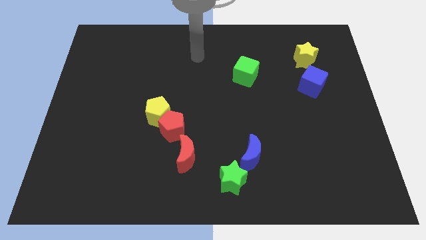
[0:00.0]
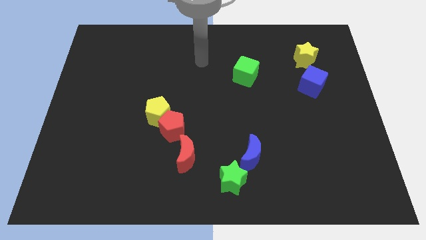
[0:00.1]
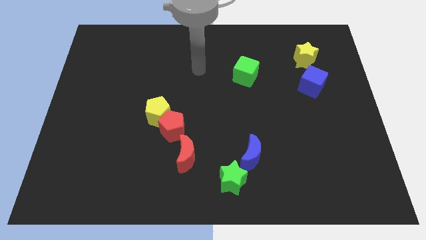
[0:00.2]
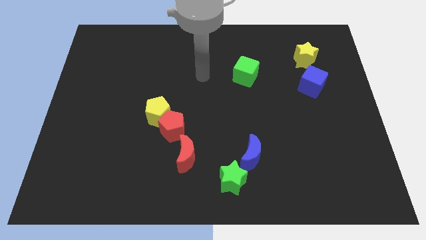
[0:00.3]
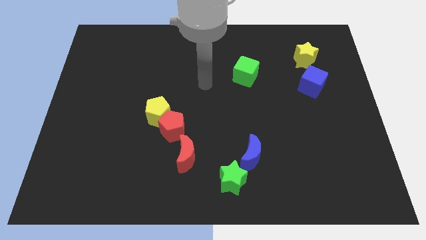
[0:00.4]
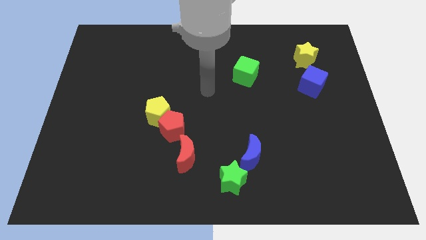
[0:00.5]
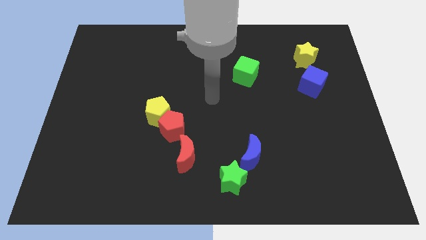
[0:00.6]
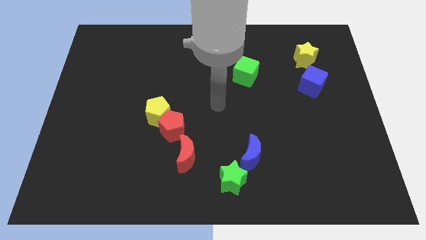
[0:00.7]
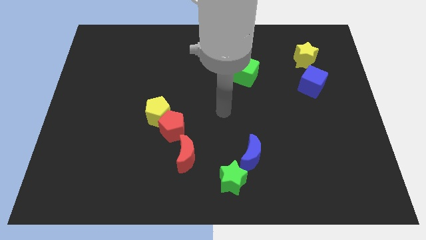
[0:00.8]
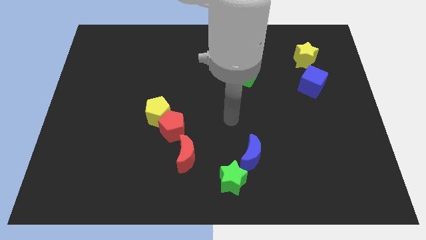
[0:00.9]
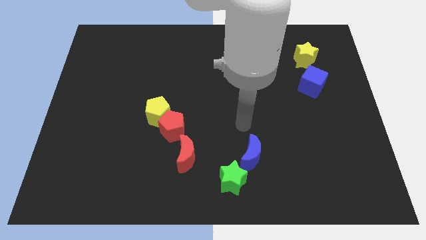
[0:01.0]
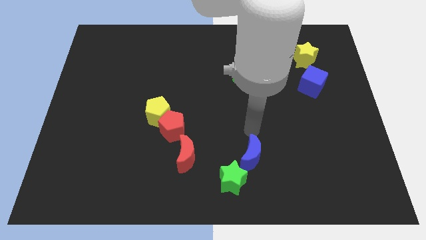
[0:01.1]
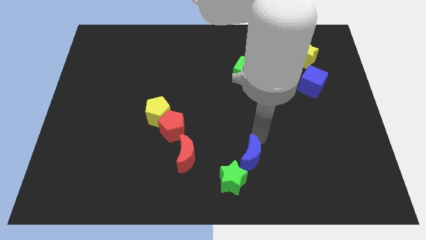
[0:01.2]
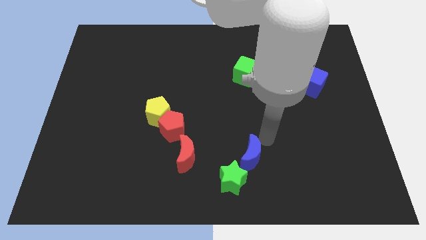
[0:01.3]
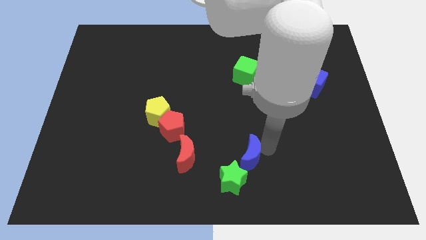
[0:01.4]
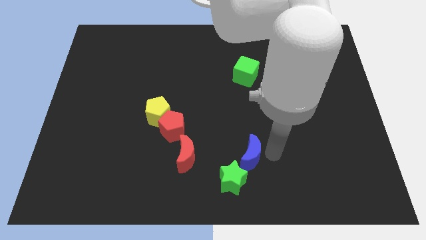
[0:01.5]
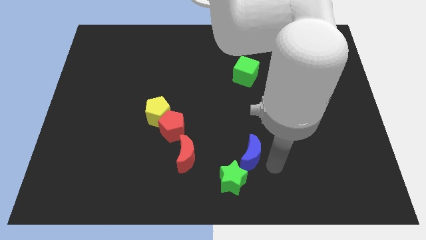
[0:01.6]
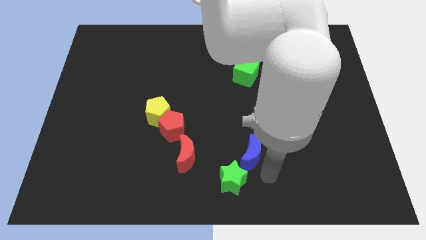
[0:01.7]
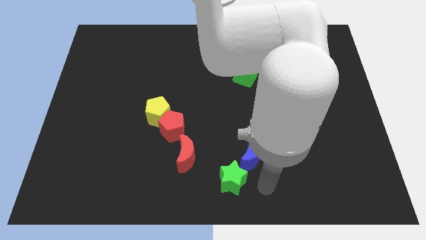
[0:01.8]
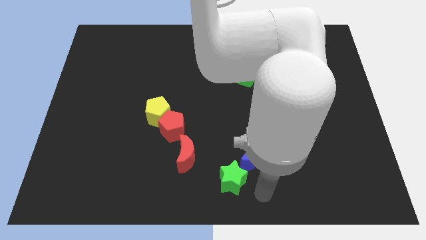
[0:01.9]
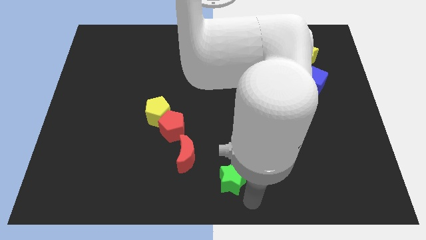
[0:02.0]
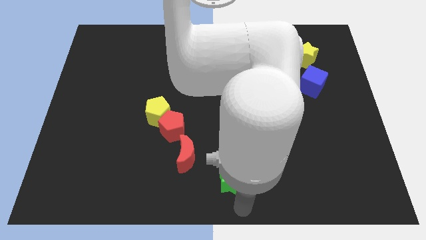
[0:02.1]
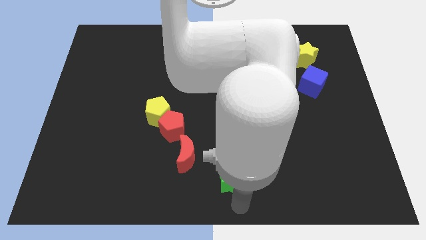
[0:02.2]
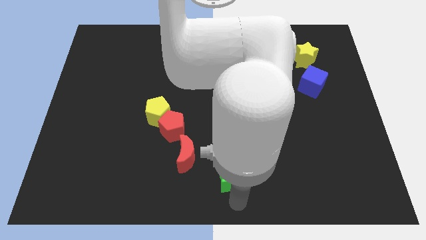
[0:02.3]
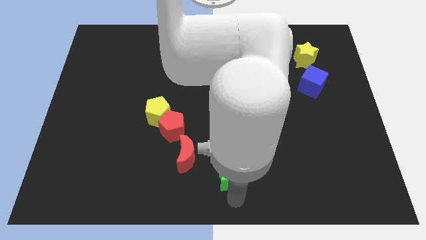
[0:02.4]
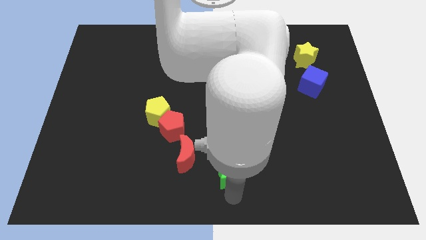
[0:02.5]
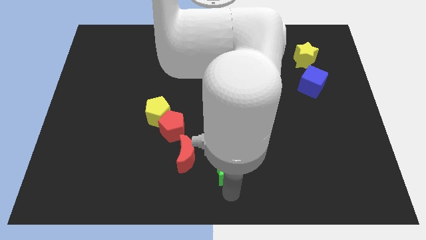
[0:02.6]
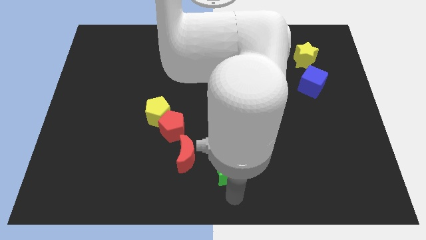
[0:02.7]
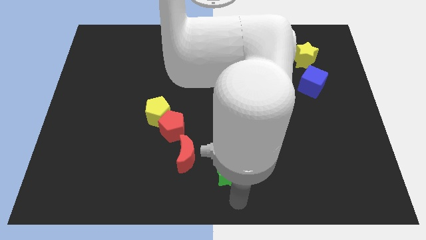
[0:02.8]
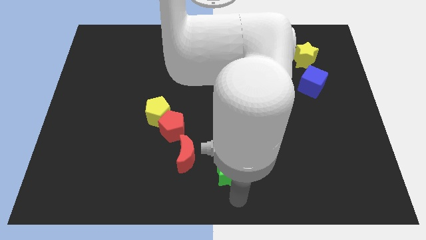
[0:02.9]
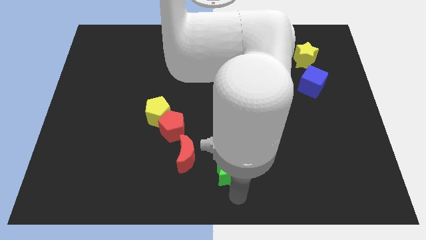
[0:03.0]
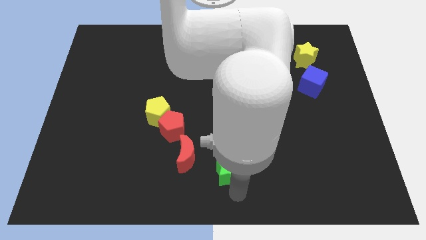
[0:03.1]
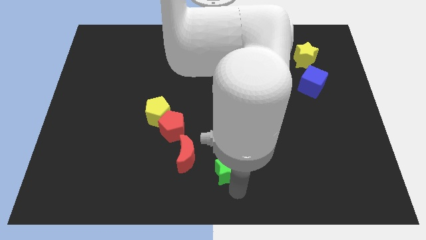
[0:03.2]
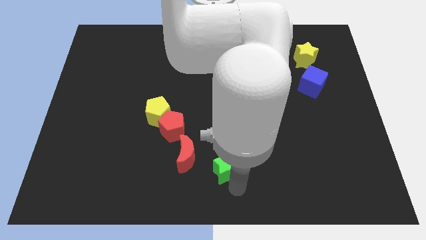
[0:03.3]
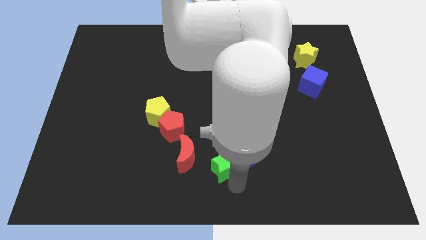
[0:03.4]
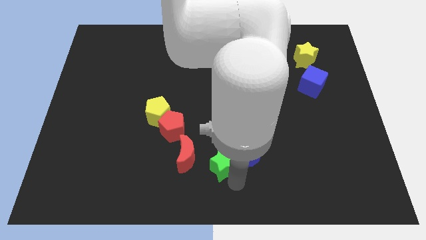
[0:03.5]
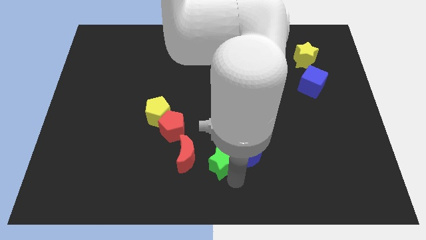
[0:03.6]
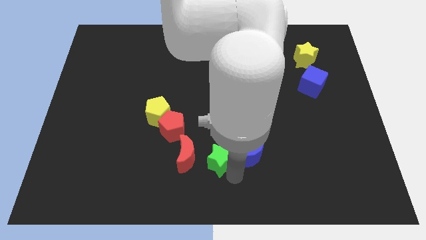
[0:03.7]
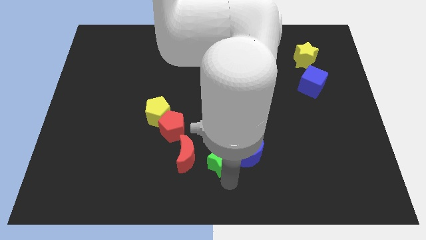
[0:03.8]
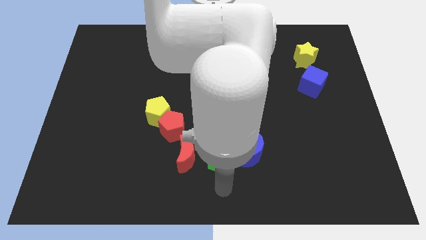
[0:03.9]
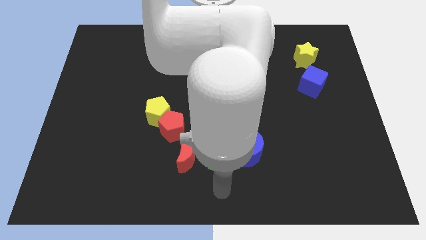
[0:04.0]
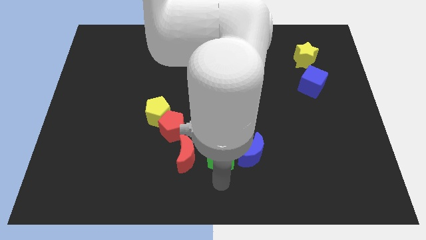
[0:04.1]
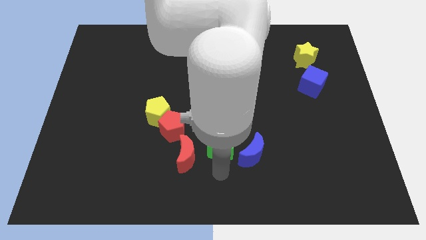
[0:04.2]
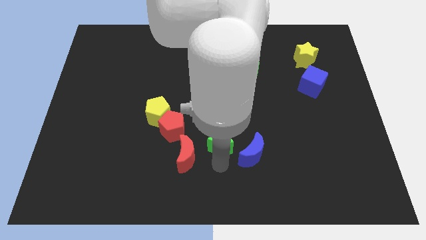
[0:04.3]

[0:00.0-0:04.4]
slide the green star to the center

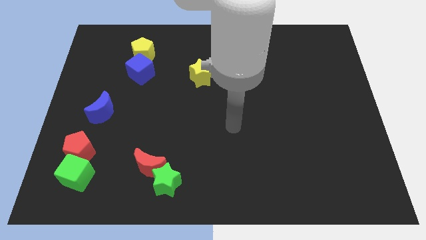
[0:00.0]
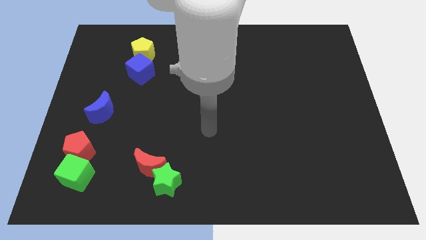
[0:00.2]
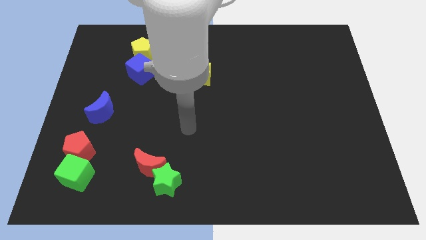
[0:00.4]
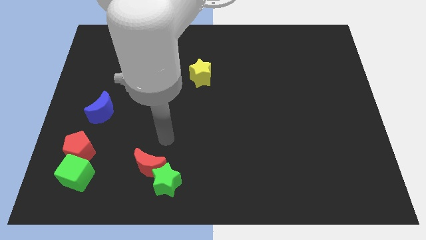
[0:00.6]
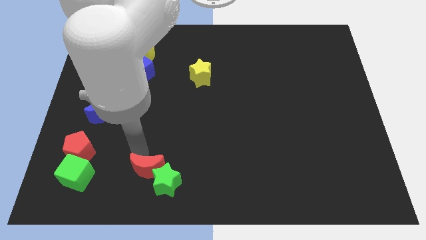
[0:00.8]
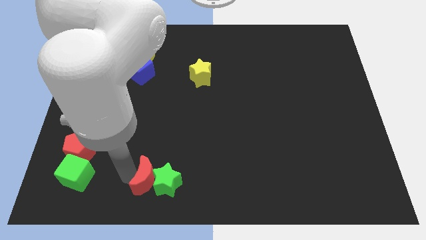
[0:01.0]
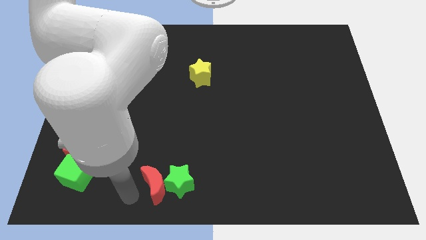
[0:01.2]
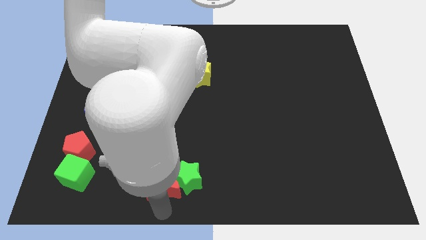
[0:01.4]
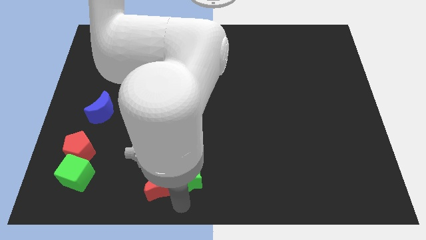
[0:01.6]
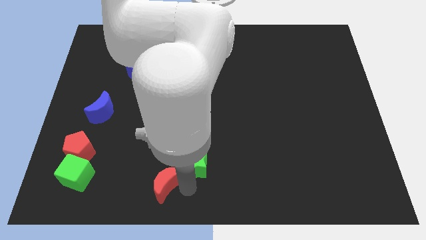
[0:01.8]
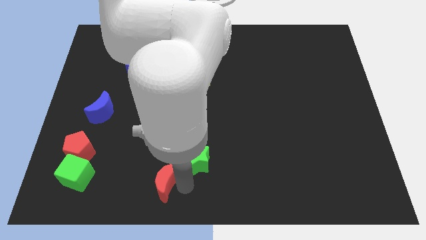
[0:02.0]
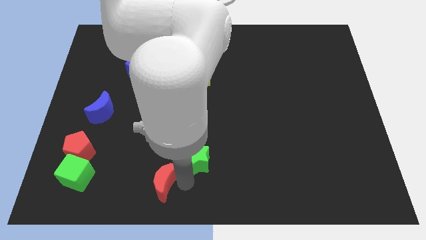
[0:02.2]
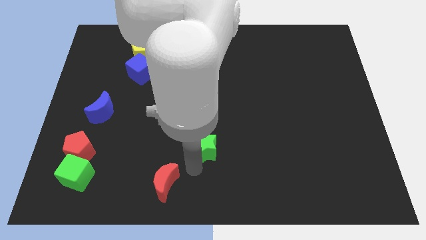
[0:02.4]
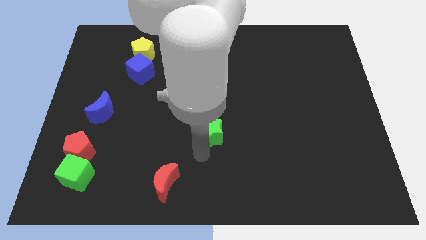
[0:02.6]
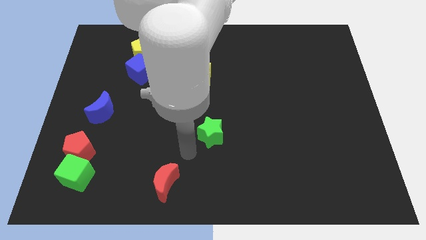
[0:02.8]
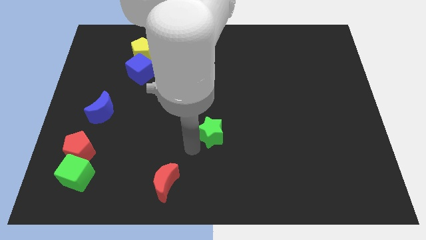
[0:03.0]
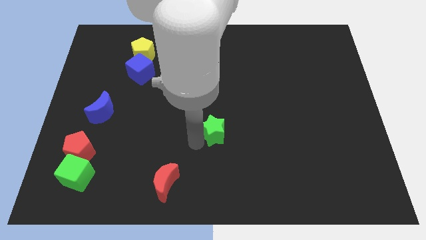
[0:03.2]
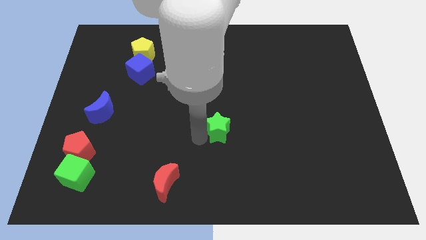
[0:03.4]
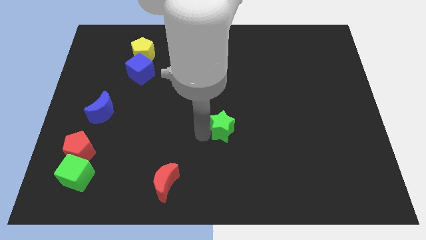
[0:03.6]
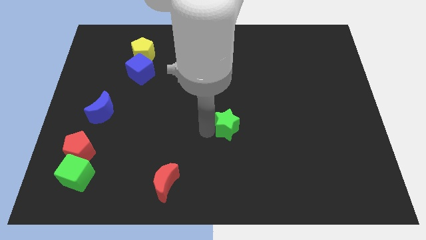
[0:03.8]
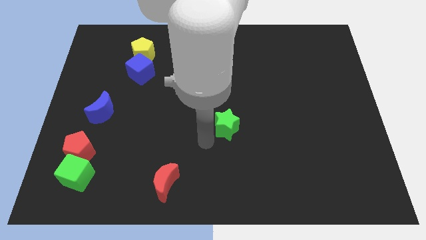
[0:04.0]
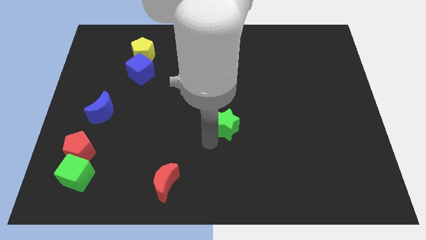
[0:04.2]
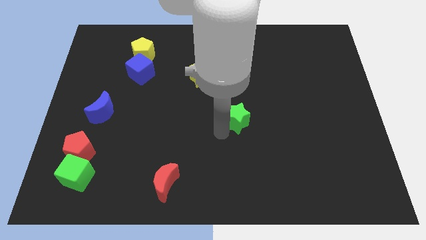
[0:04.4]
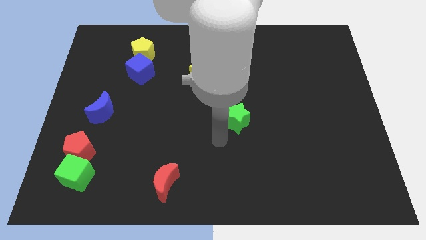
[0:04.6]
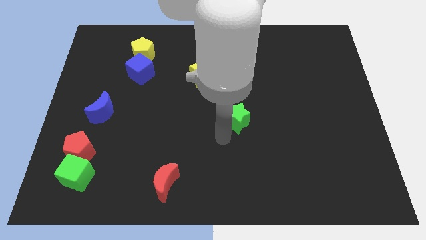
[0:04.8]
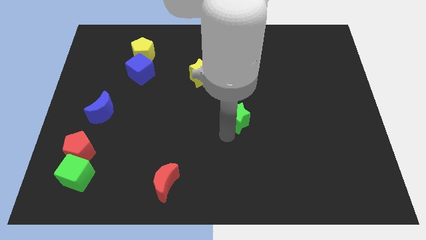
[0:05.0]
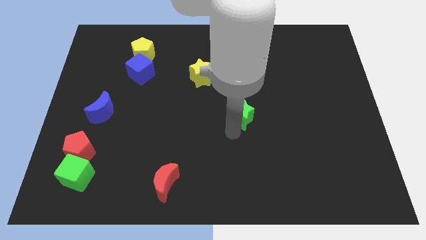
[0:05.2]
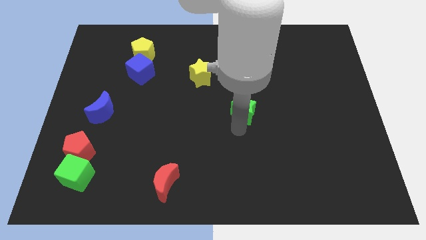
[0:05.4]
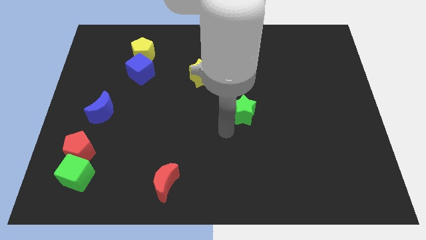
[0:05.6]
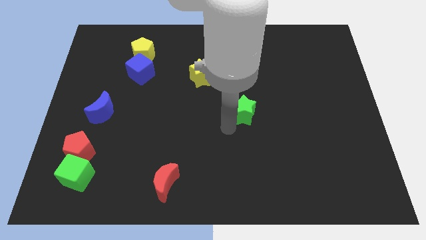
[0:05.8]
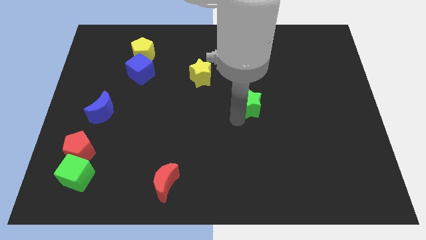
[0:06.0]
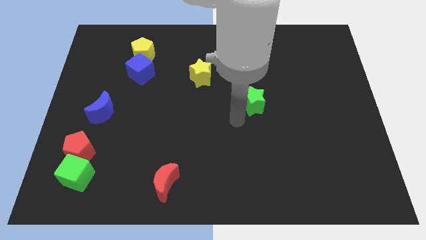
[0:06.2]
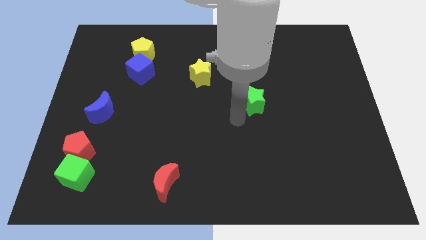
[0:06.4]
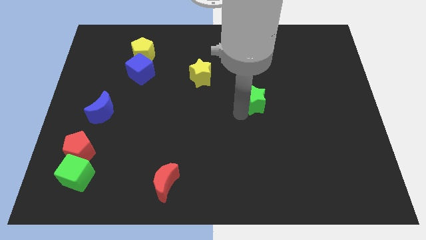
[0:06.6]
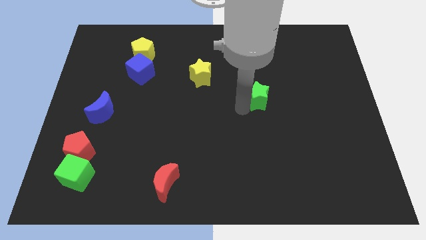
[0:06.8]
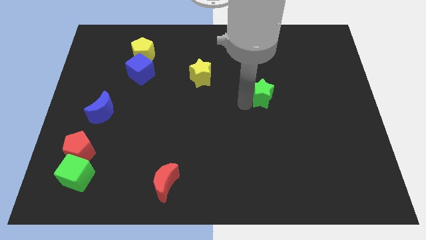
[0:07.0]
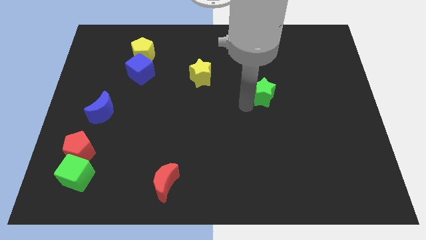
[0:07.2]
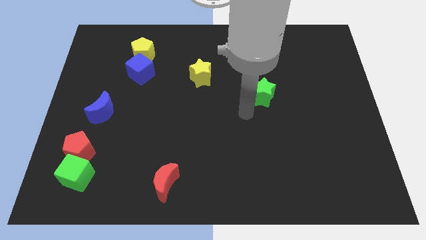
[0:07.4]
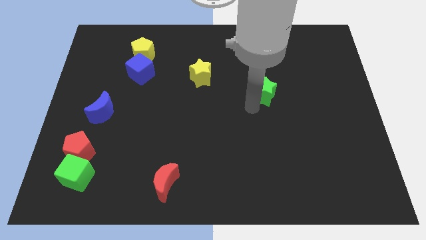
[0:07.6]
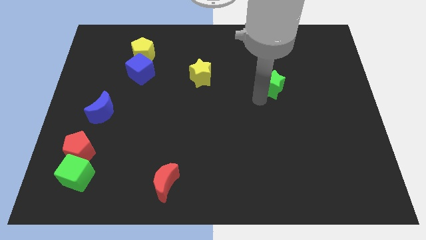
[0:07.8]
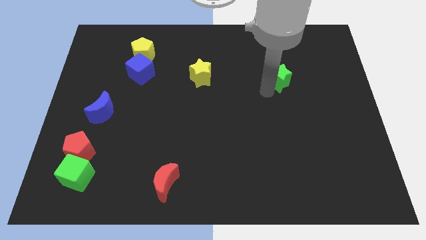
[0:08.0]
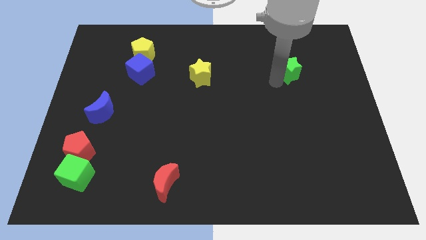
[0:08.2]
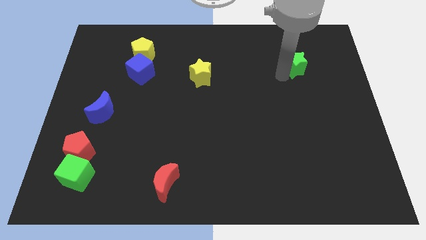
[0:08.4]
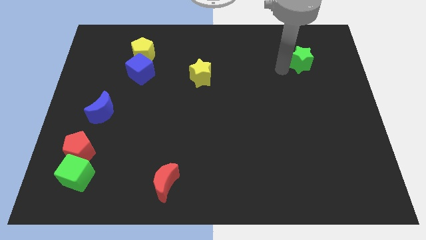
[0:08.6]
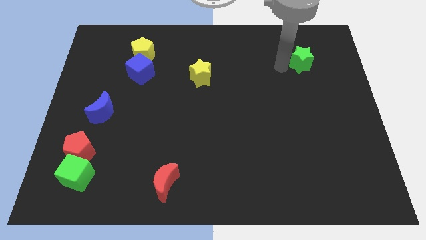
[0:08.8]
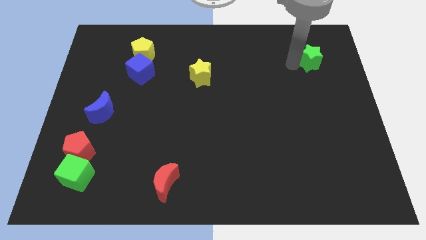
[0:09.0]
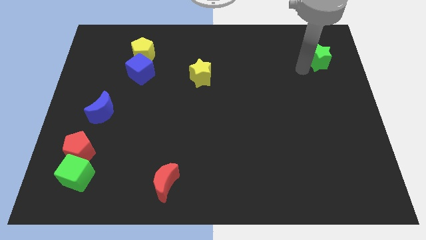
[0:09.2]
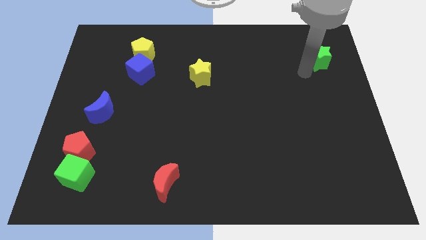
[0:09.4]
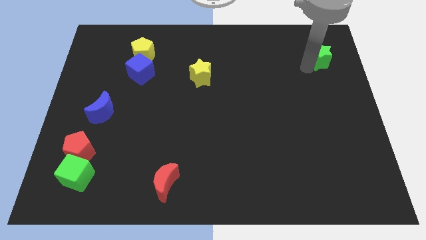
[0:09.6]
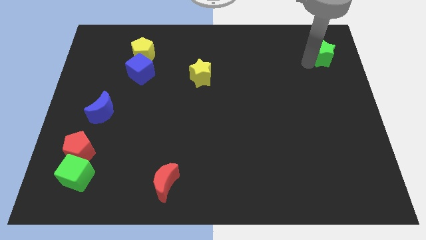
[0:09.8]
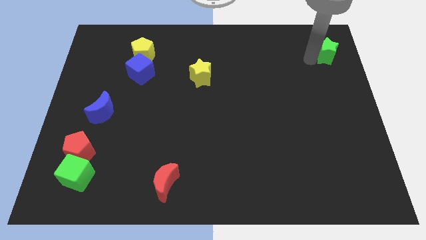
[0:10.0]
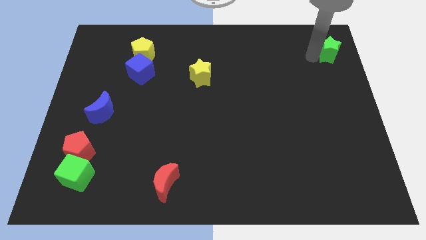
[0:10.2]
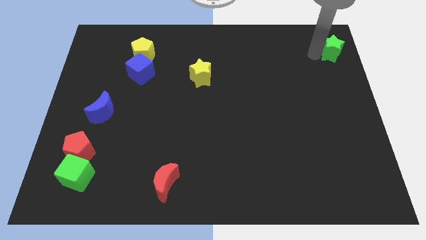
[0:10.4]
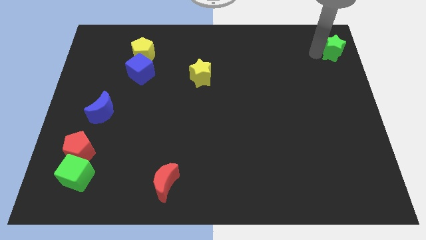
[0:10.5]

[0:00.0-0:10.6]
slide the green star to the upper right corner
